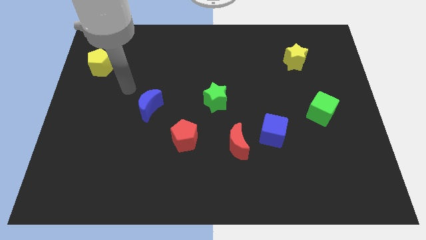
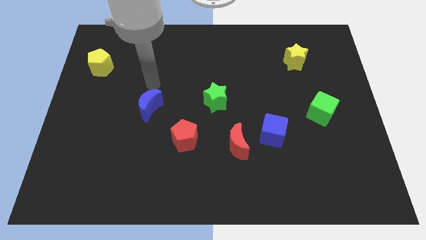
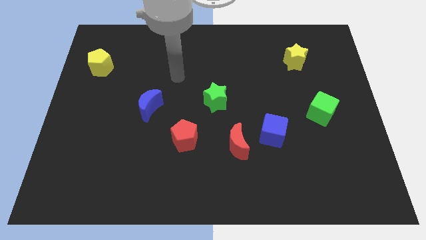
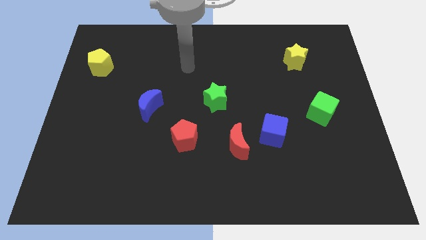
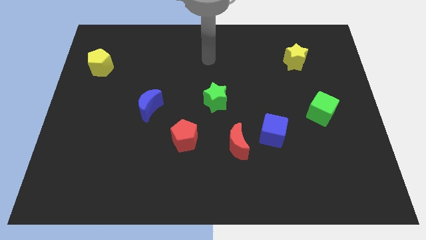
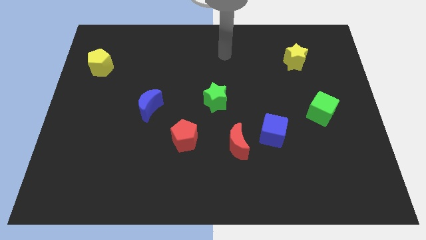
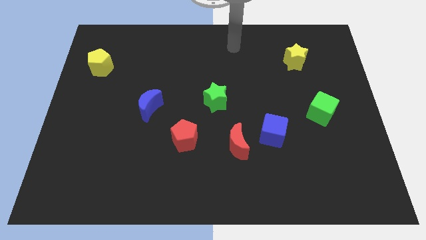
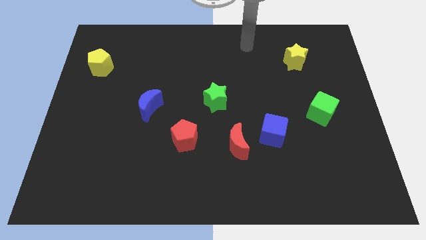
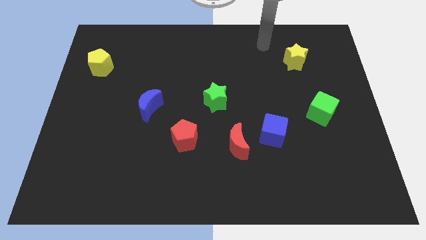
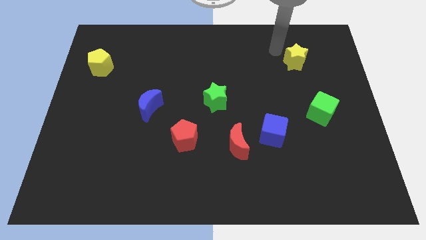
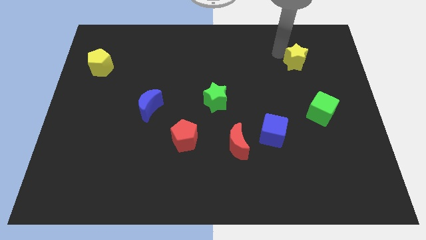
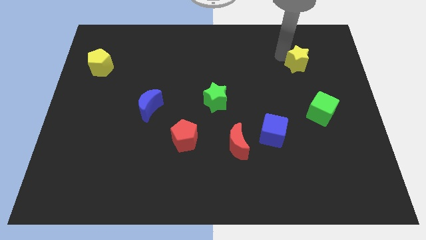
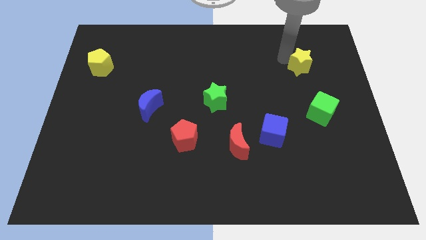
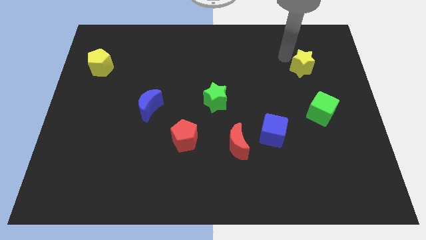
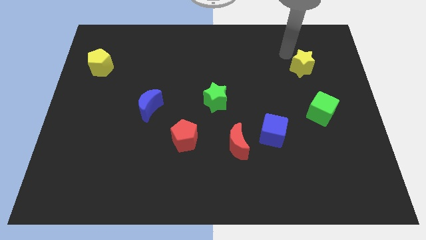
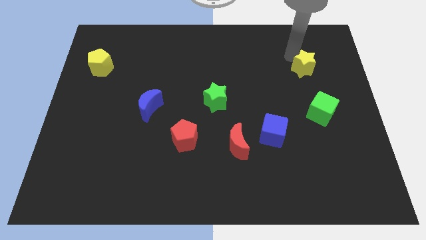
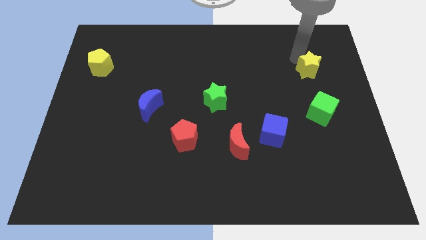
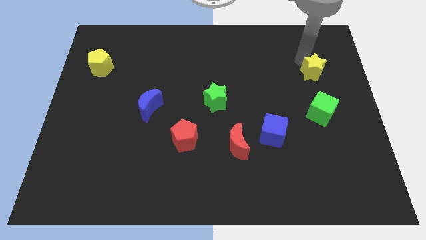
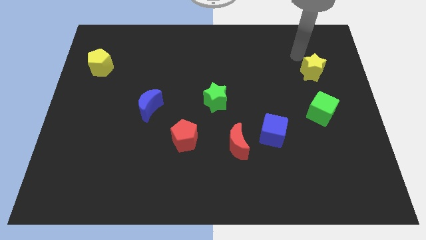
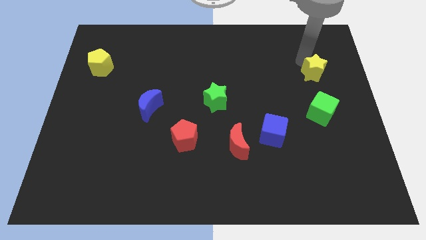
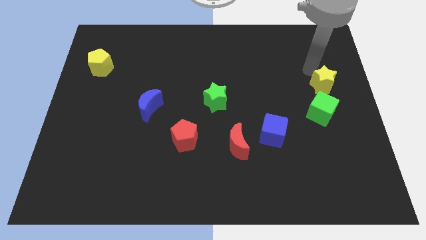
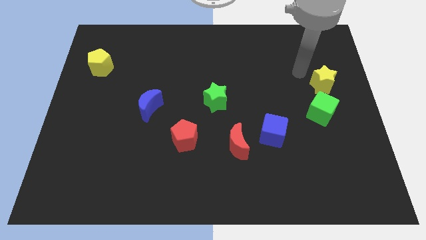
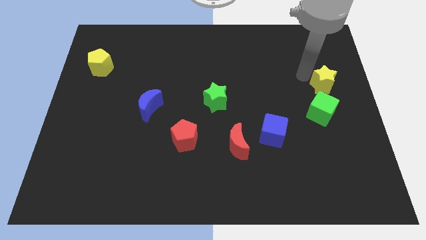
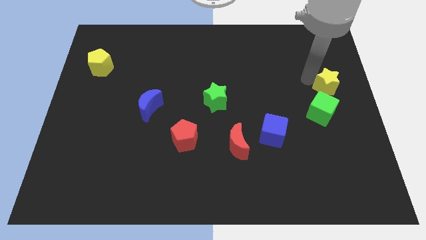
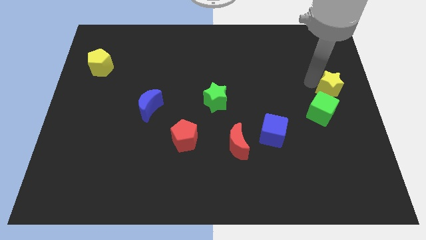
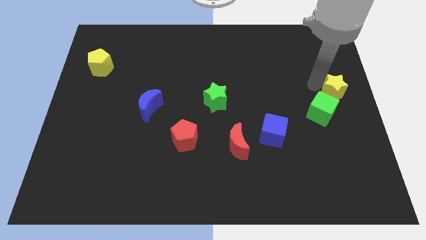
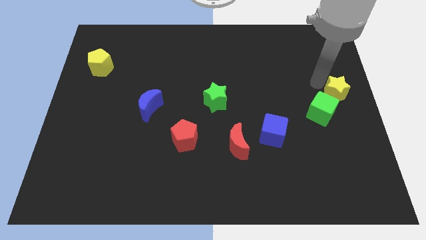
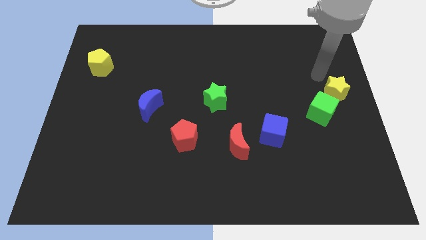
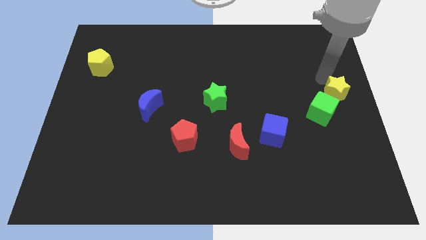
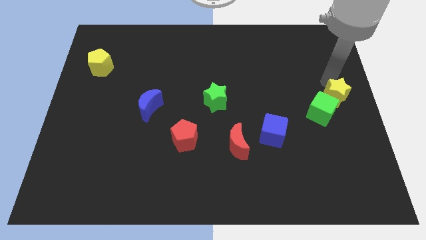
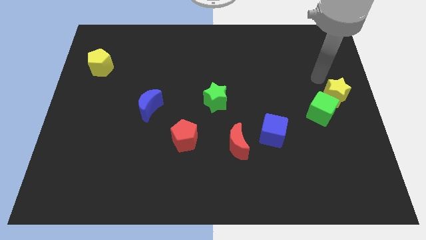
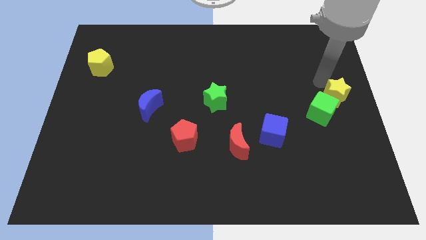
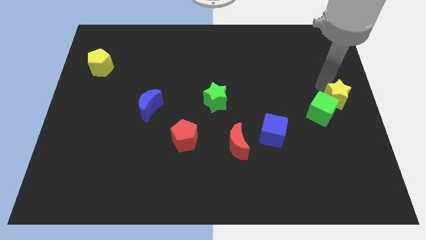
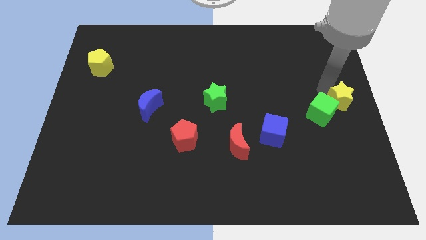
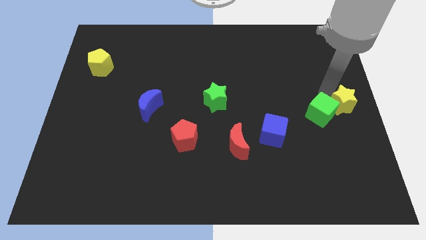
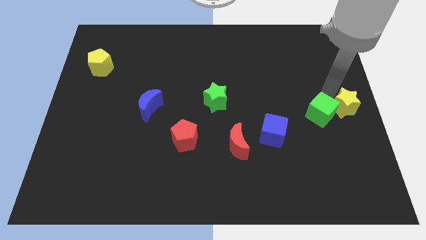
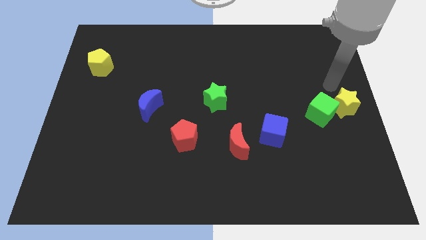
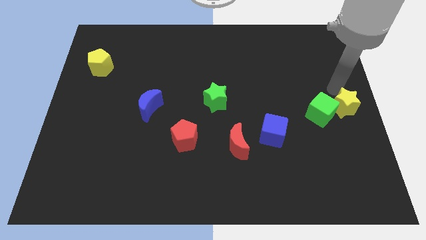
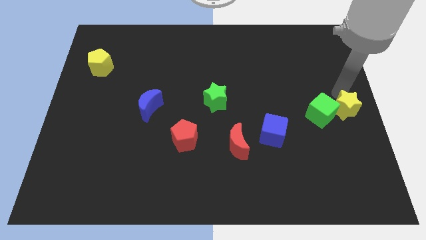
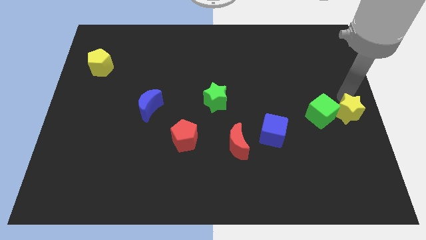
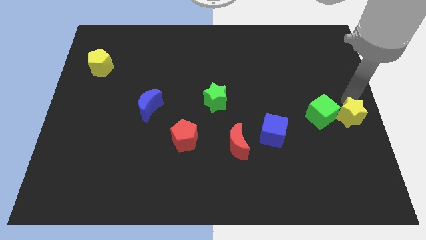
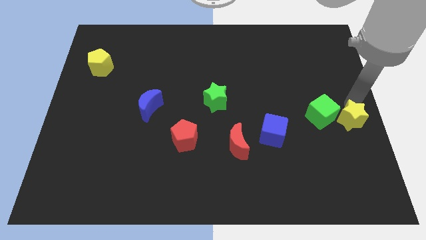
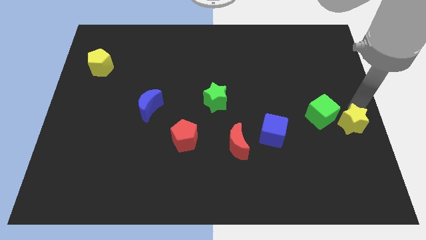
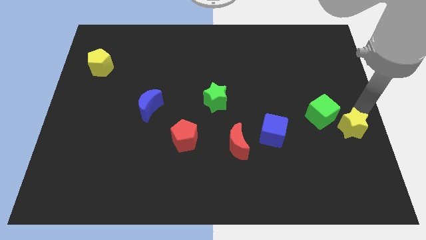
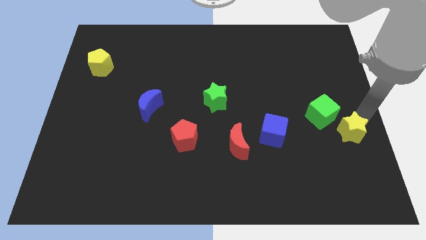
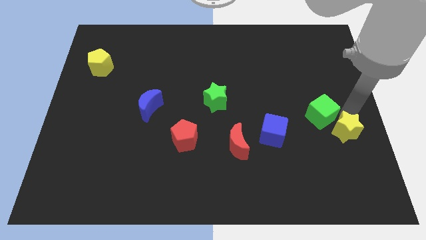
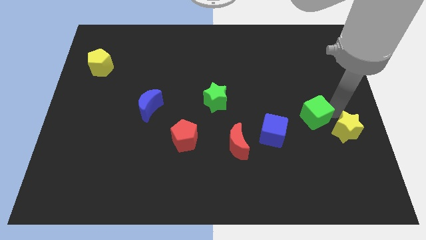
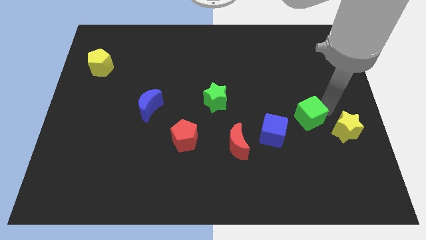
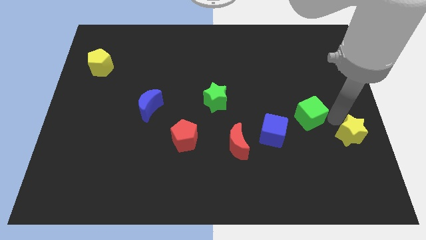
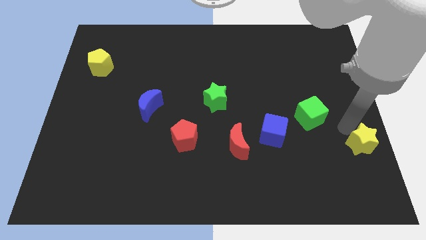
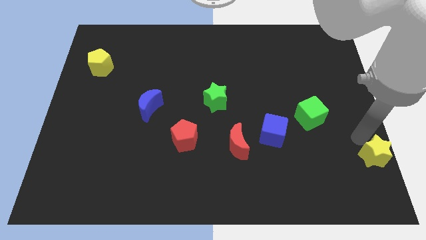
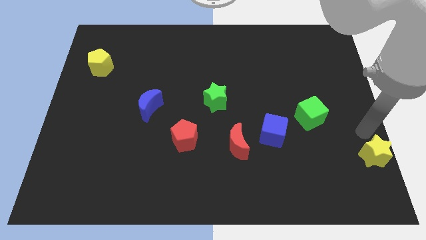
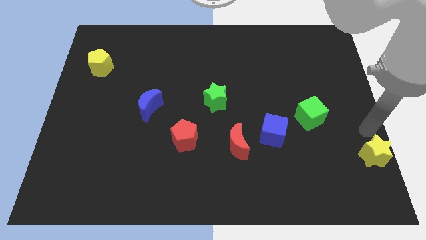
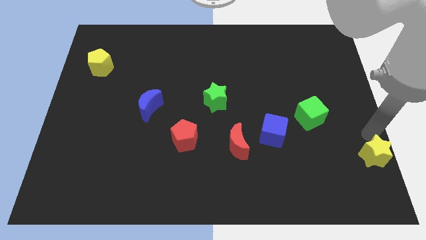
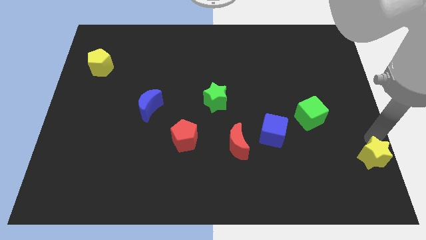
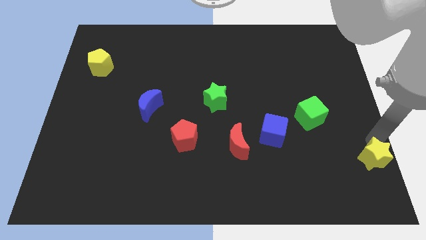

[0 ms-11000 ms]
slide the yellow star to the bottom right corner
